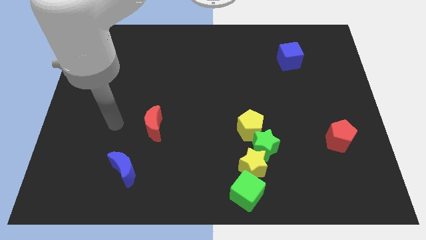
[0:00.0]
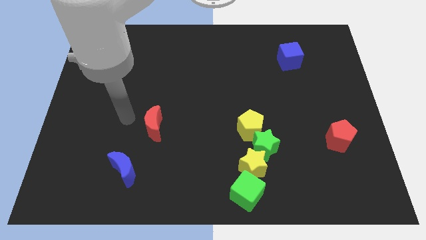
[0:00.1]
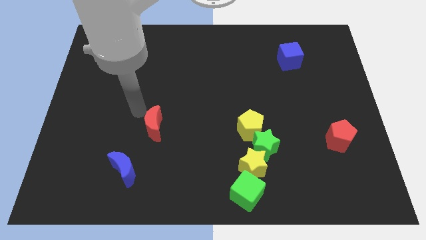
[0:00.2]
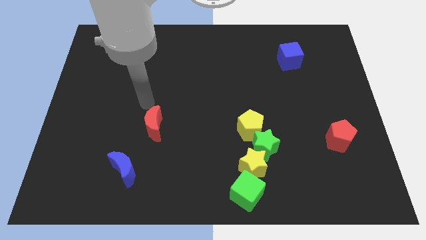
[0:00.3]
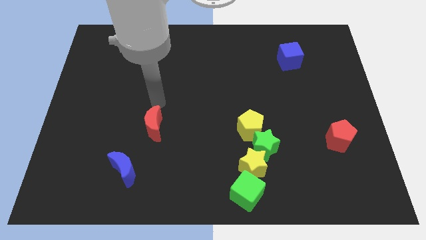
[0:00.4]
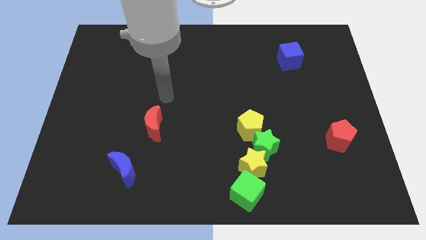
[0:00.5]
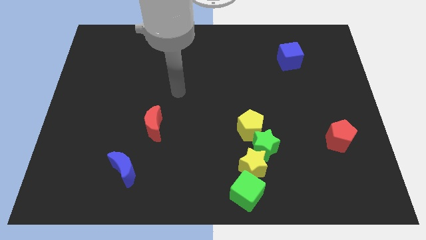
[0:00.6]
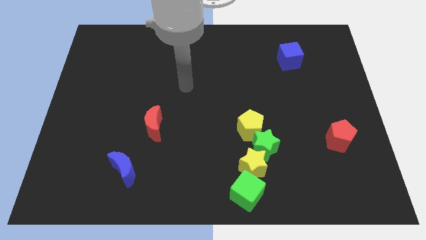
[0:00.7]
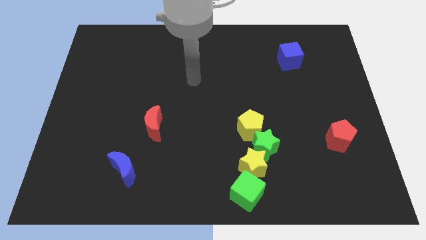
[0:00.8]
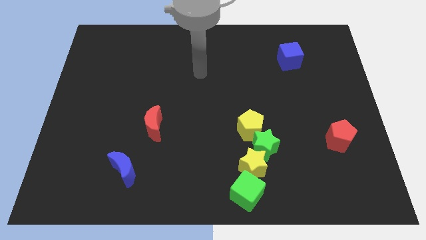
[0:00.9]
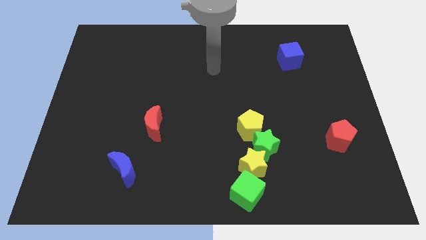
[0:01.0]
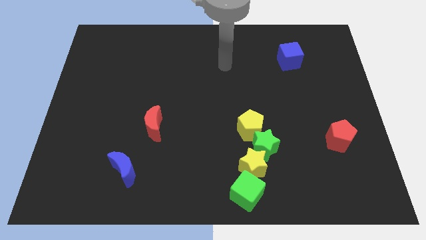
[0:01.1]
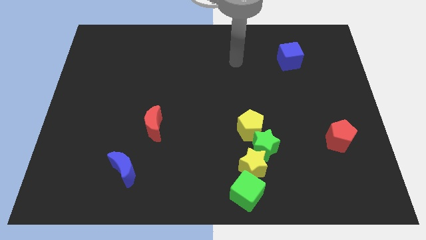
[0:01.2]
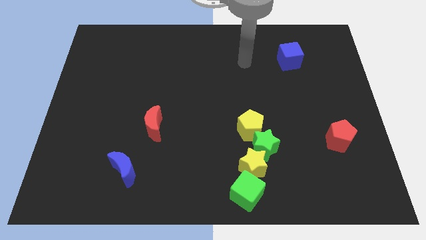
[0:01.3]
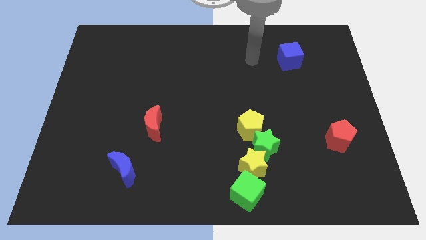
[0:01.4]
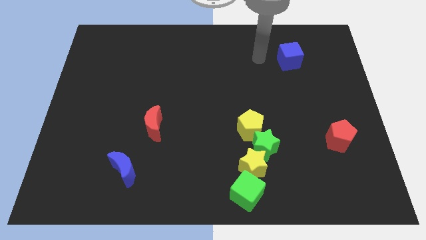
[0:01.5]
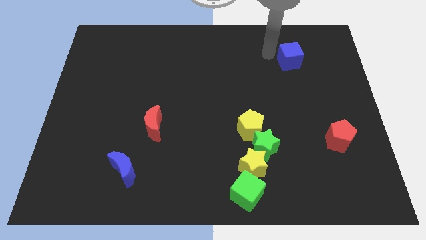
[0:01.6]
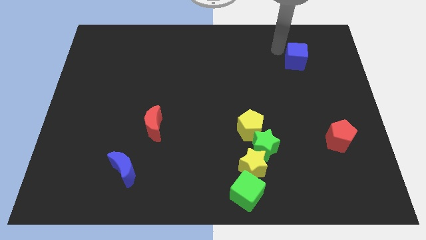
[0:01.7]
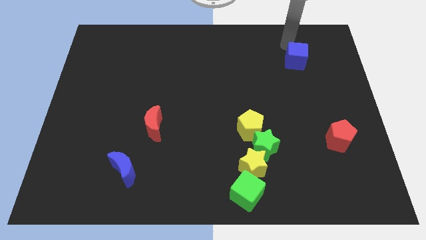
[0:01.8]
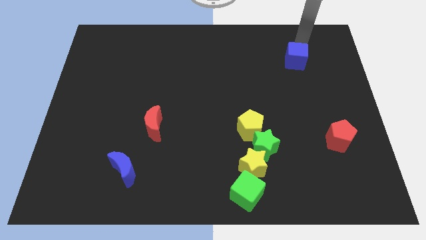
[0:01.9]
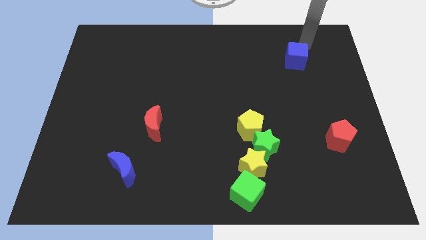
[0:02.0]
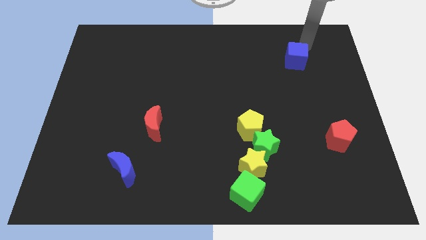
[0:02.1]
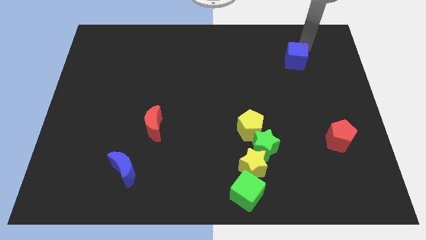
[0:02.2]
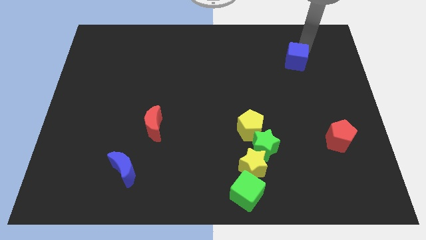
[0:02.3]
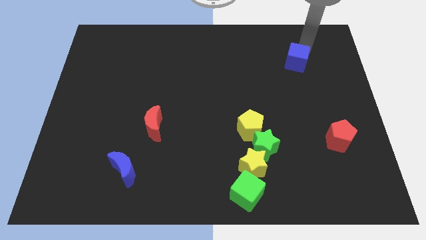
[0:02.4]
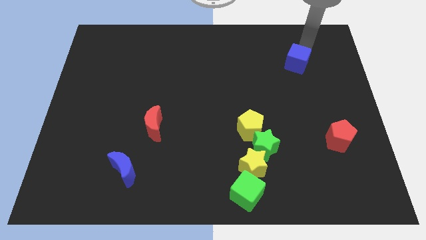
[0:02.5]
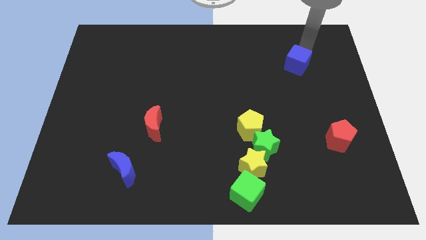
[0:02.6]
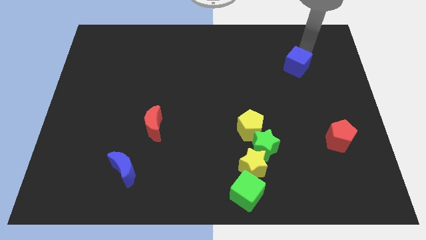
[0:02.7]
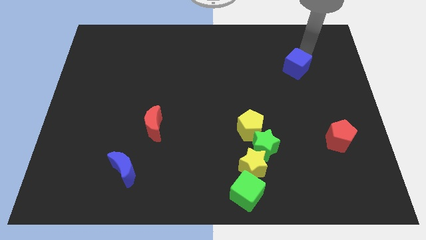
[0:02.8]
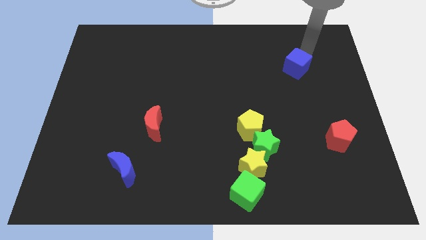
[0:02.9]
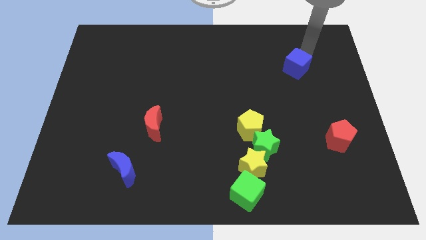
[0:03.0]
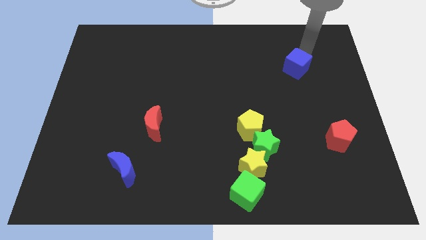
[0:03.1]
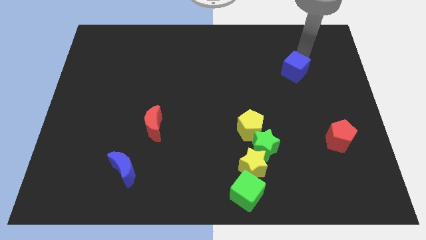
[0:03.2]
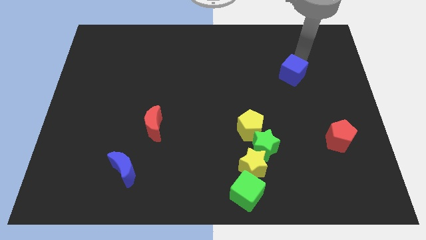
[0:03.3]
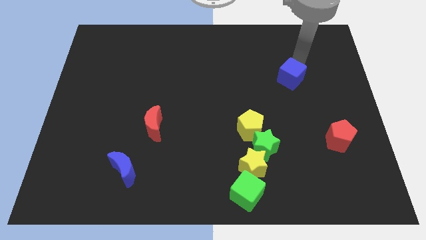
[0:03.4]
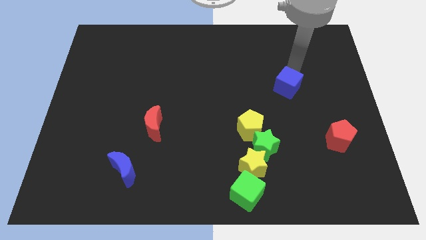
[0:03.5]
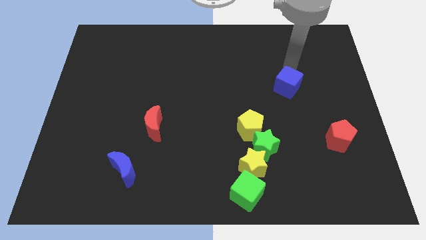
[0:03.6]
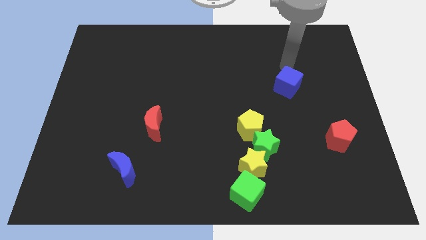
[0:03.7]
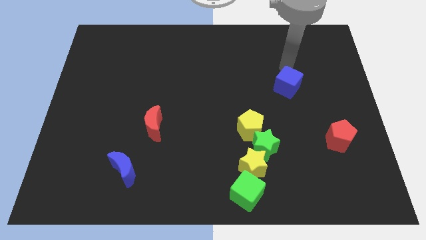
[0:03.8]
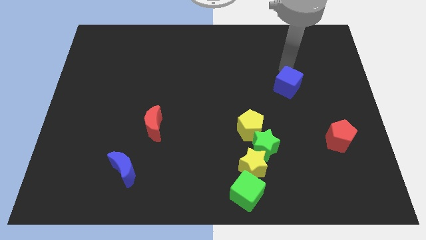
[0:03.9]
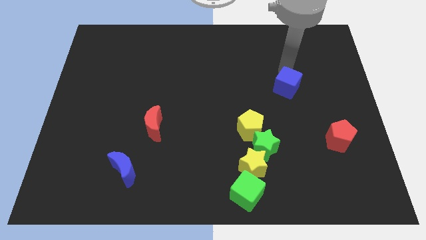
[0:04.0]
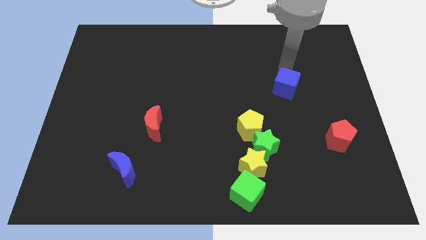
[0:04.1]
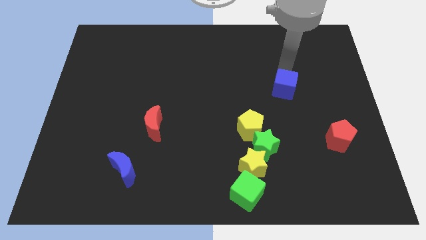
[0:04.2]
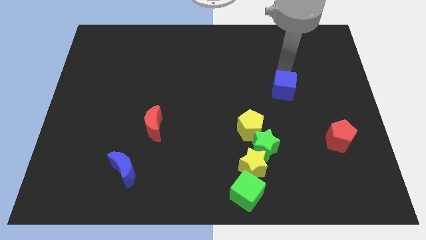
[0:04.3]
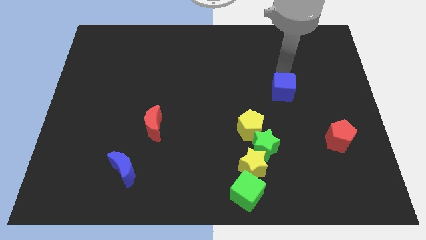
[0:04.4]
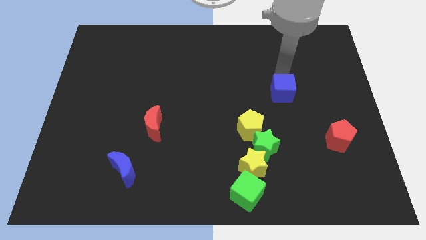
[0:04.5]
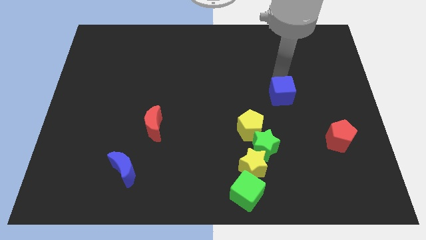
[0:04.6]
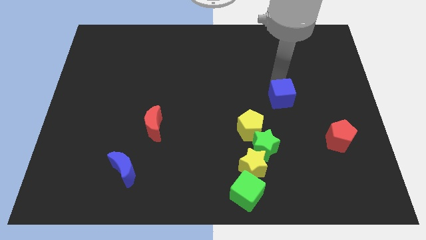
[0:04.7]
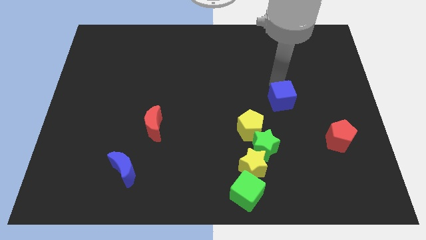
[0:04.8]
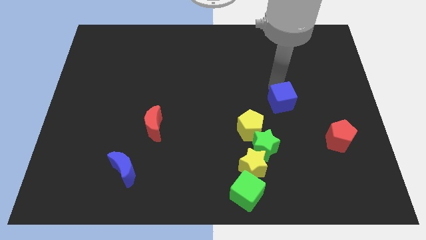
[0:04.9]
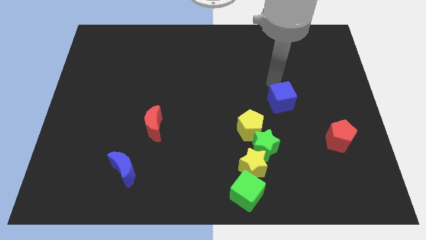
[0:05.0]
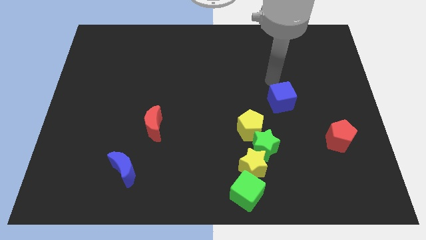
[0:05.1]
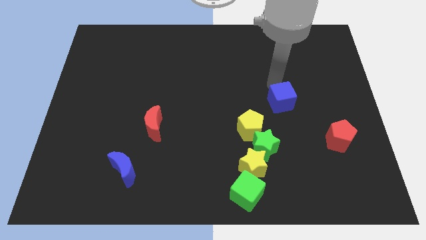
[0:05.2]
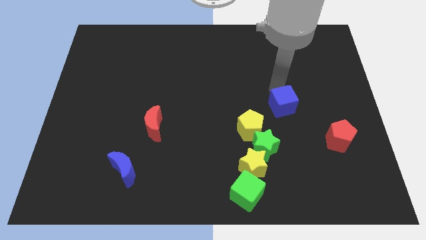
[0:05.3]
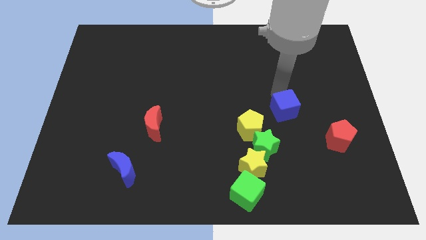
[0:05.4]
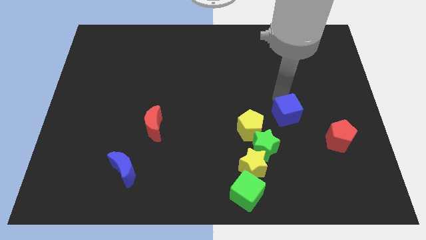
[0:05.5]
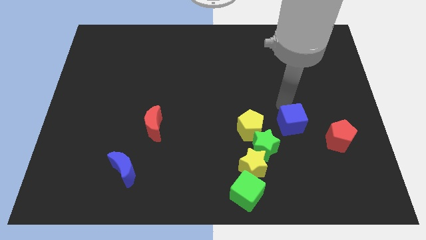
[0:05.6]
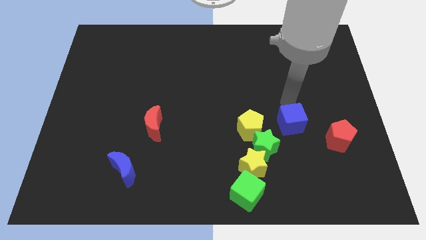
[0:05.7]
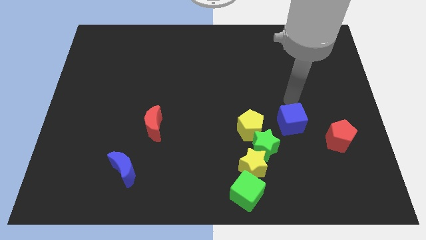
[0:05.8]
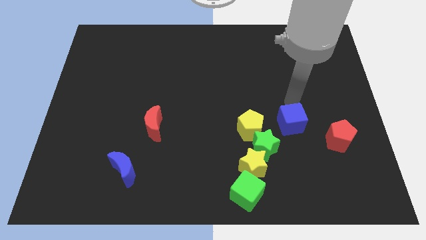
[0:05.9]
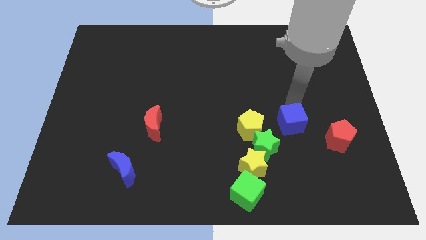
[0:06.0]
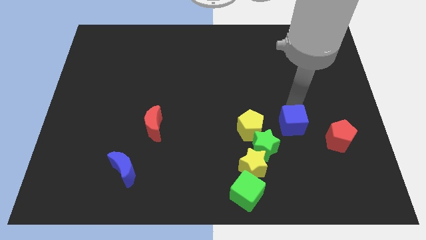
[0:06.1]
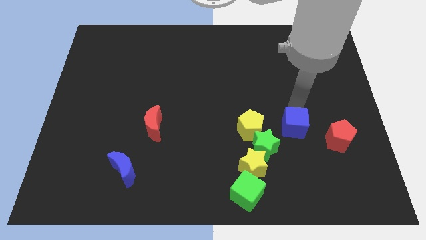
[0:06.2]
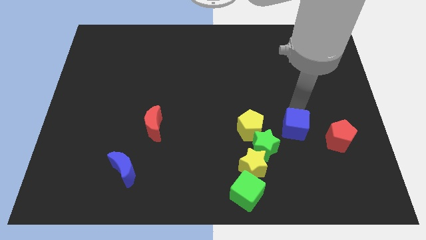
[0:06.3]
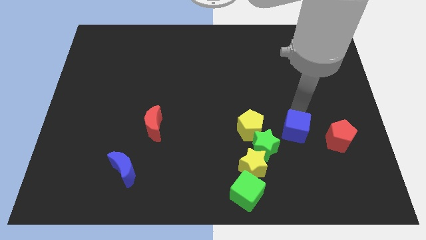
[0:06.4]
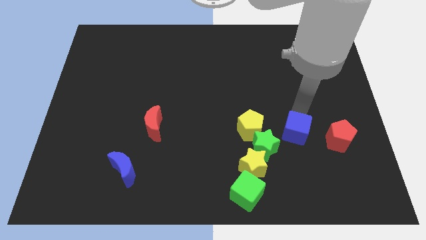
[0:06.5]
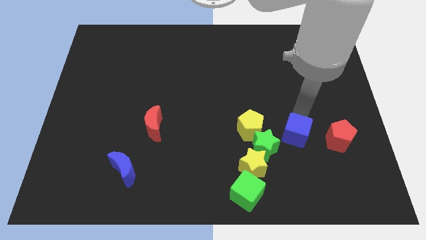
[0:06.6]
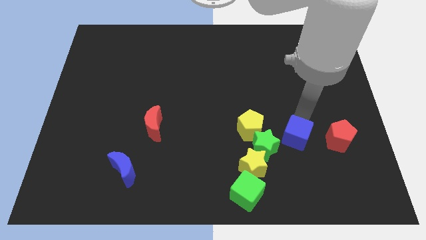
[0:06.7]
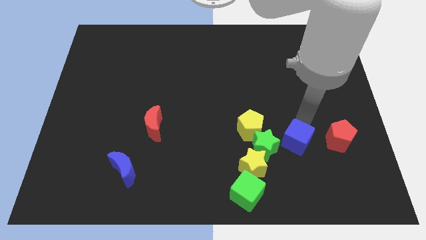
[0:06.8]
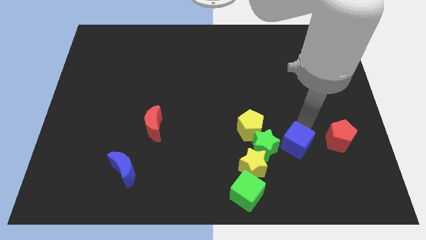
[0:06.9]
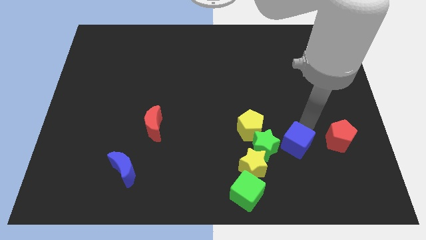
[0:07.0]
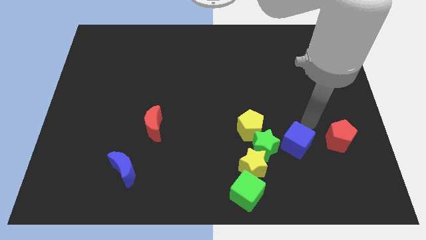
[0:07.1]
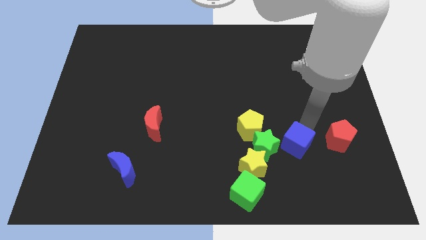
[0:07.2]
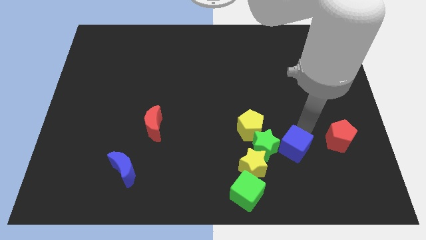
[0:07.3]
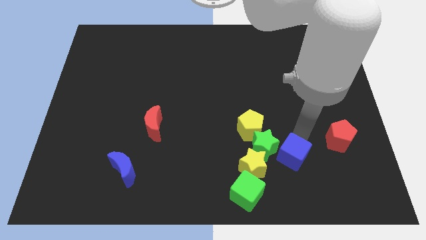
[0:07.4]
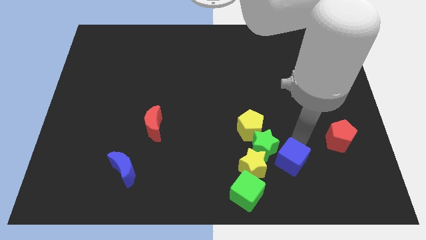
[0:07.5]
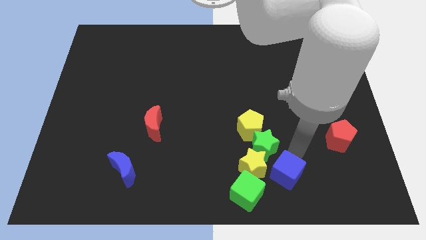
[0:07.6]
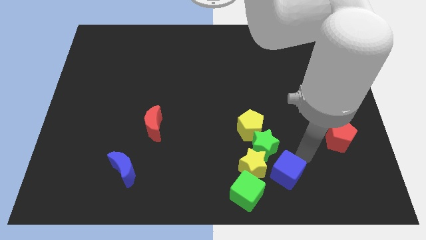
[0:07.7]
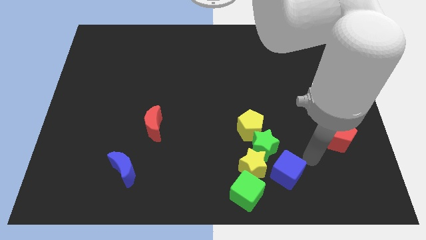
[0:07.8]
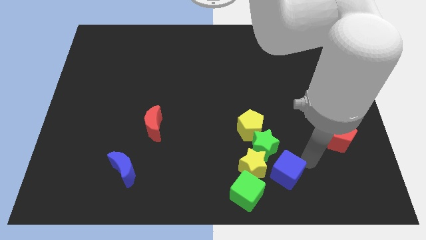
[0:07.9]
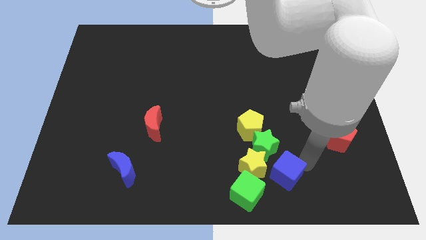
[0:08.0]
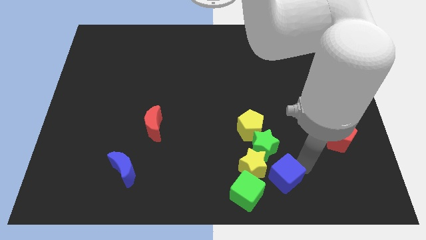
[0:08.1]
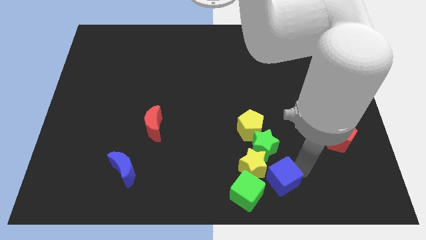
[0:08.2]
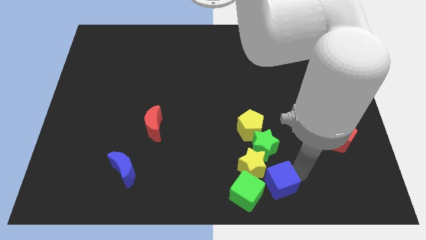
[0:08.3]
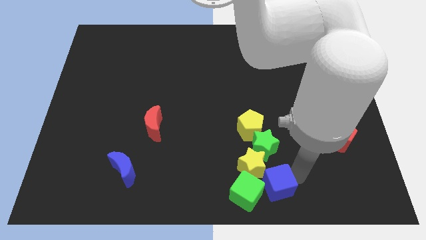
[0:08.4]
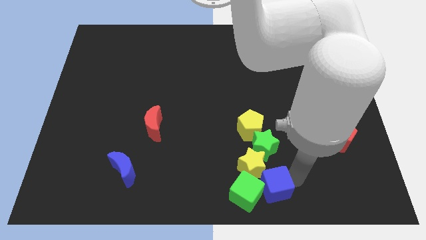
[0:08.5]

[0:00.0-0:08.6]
put the blue cube to the green cube
